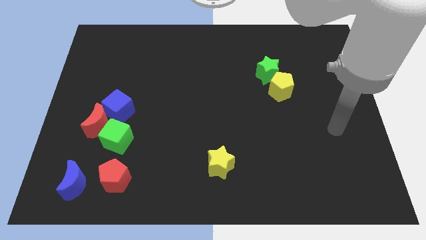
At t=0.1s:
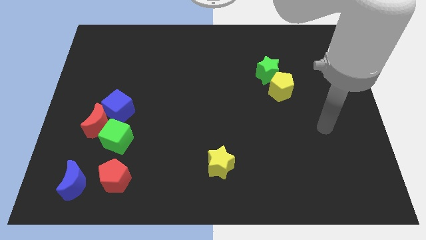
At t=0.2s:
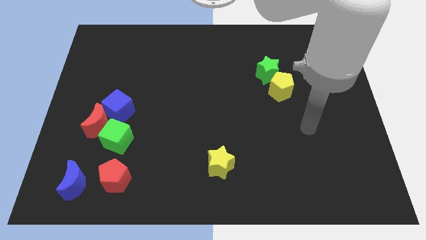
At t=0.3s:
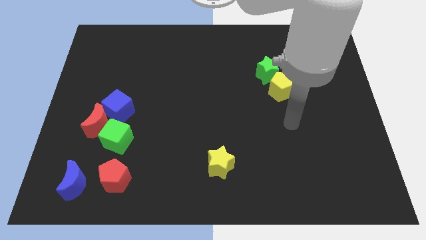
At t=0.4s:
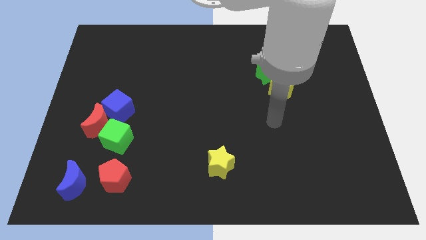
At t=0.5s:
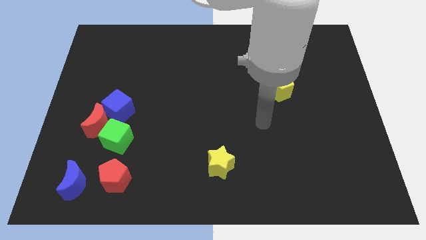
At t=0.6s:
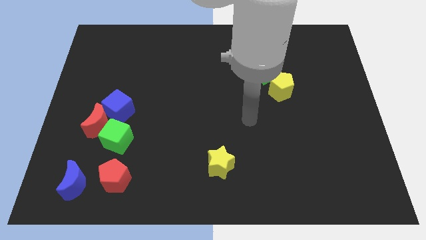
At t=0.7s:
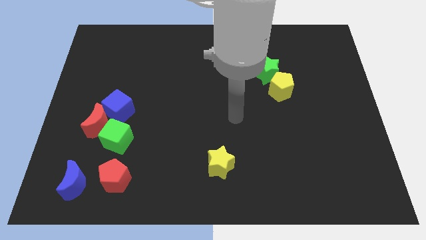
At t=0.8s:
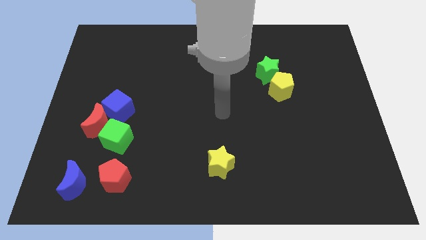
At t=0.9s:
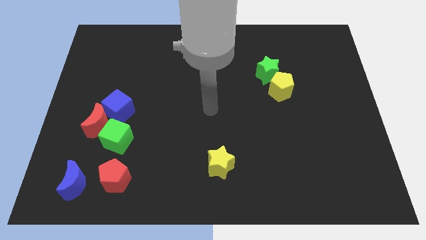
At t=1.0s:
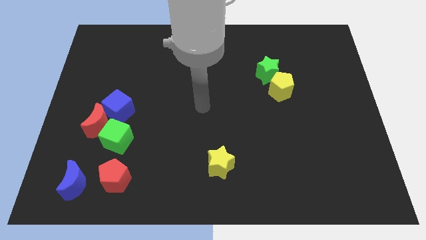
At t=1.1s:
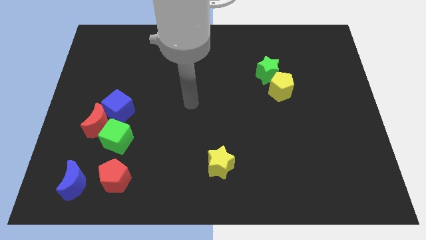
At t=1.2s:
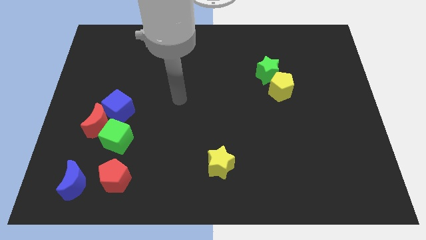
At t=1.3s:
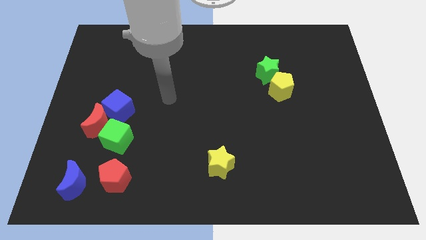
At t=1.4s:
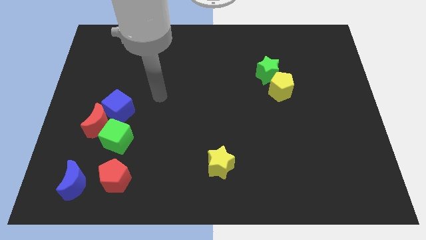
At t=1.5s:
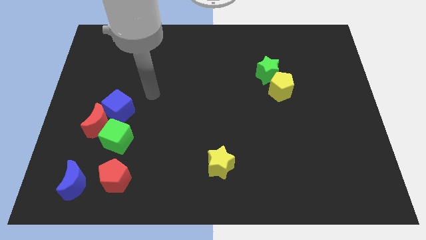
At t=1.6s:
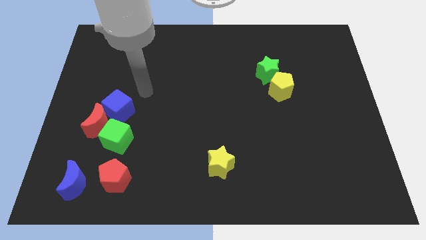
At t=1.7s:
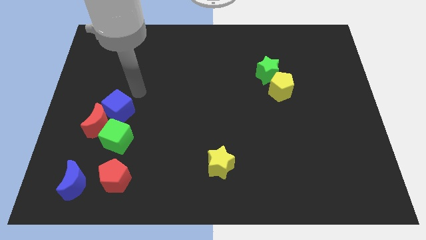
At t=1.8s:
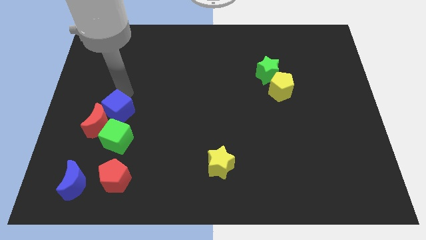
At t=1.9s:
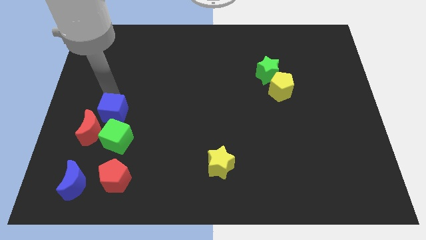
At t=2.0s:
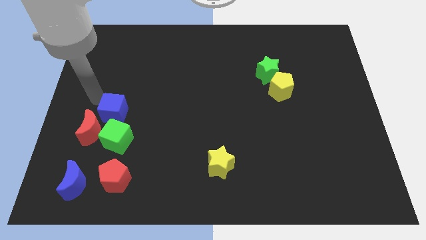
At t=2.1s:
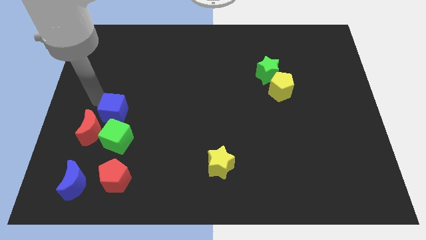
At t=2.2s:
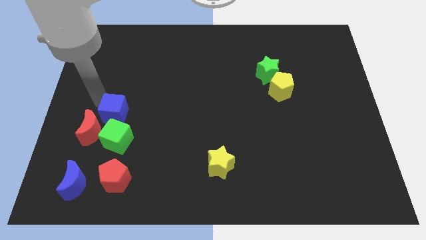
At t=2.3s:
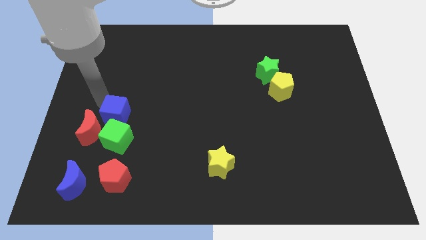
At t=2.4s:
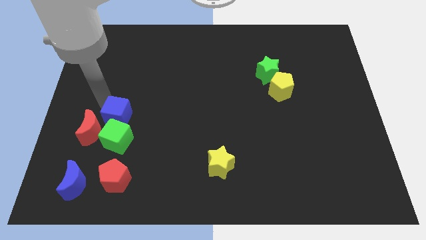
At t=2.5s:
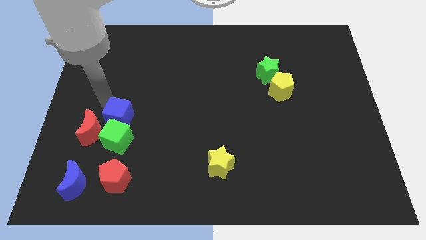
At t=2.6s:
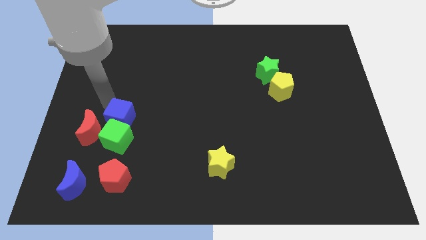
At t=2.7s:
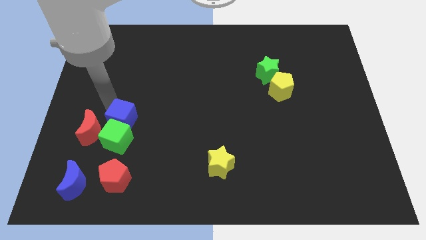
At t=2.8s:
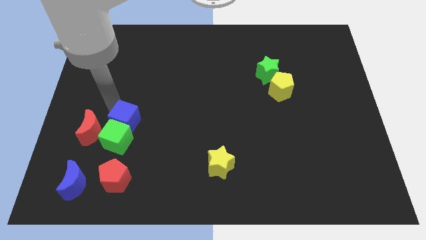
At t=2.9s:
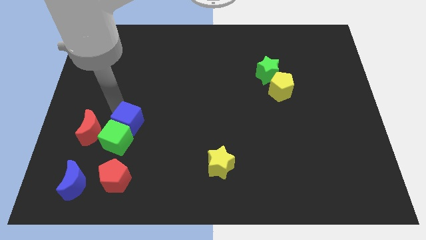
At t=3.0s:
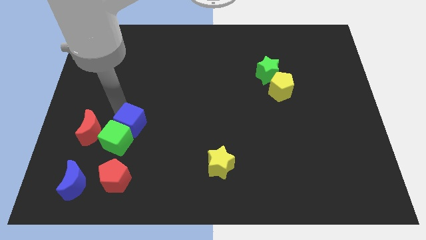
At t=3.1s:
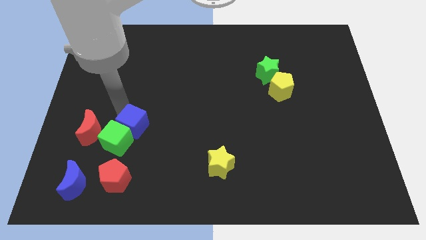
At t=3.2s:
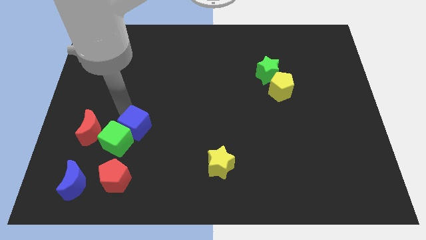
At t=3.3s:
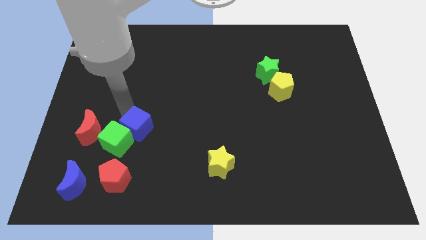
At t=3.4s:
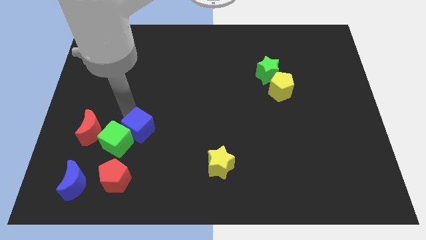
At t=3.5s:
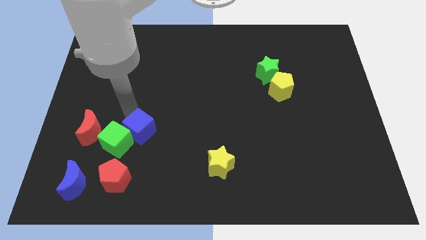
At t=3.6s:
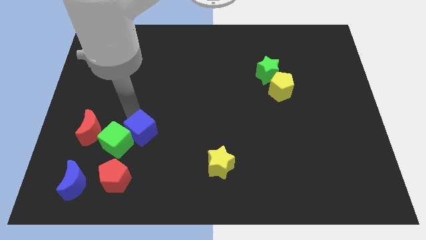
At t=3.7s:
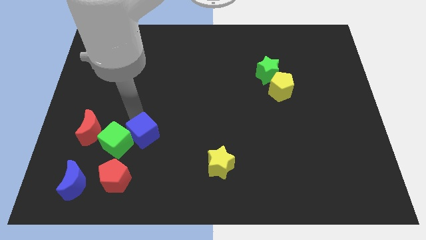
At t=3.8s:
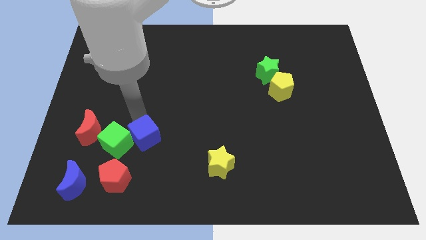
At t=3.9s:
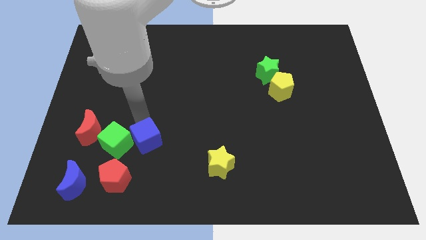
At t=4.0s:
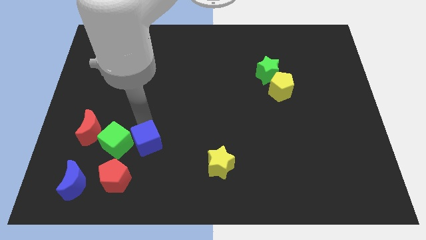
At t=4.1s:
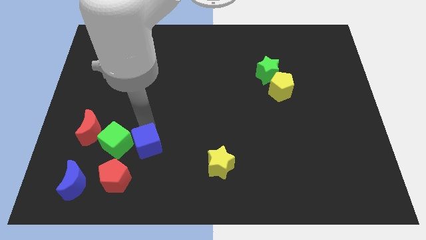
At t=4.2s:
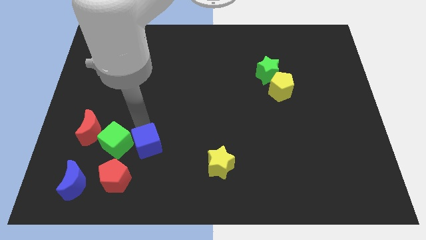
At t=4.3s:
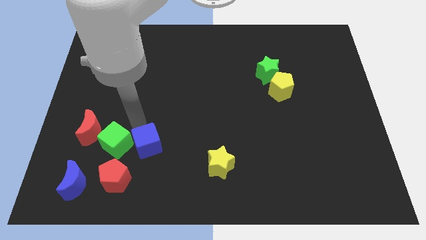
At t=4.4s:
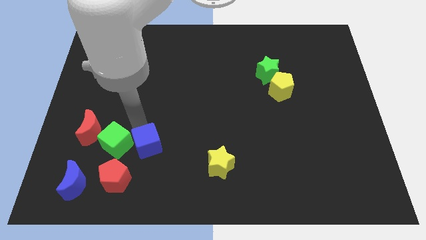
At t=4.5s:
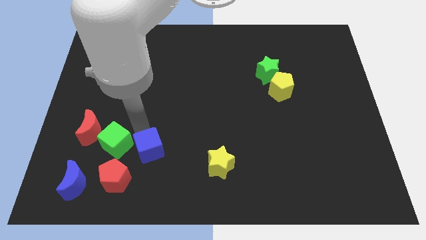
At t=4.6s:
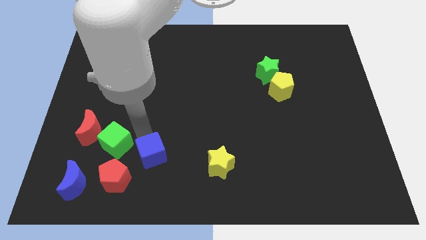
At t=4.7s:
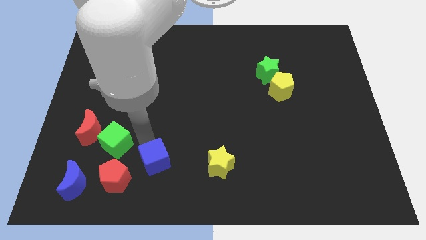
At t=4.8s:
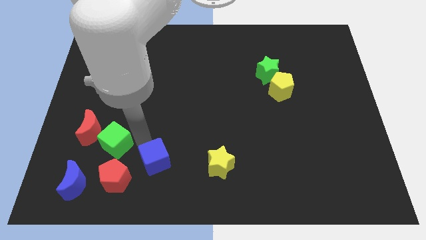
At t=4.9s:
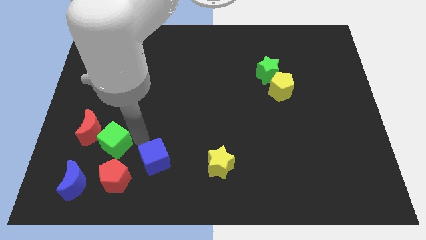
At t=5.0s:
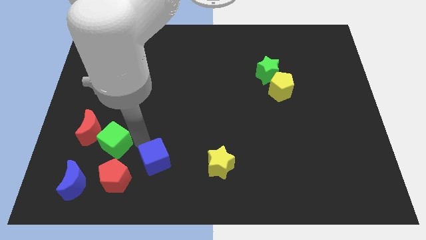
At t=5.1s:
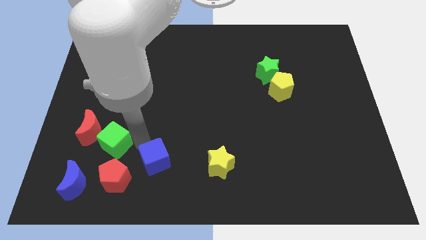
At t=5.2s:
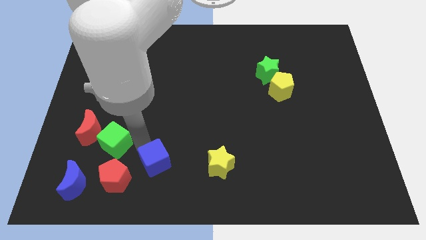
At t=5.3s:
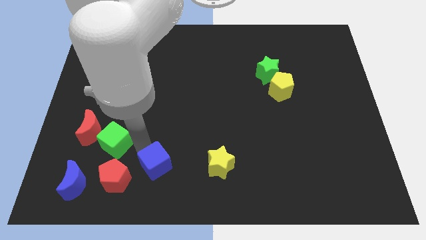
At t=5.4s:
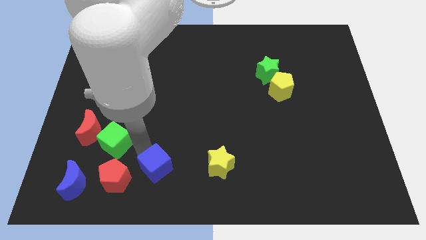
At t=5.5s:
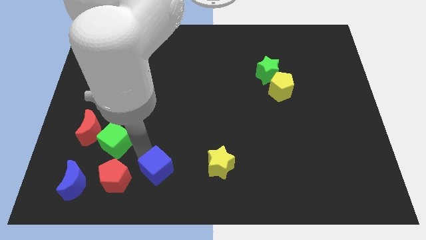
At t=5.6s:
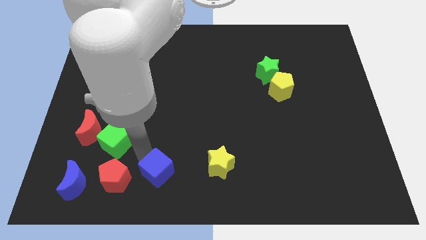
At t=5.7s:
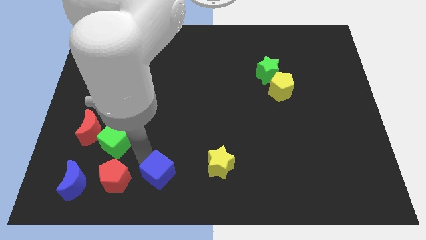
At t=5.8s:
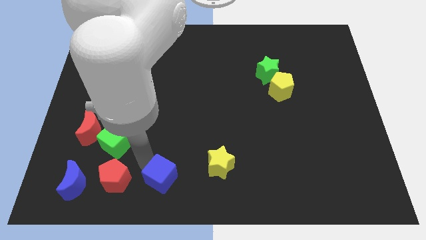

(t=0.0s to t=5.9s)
put the blue cube to the bottom side

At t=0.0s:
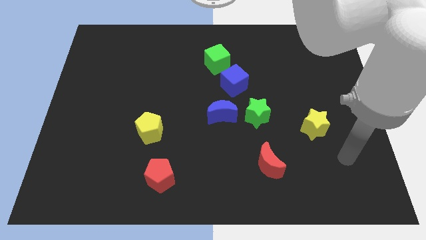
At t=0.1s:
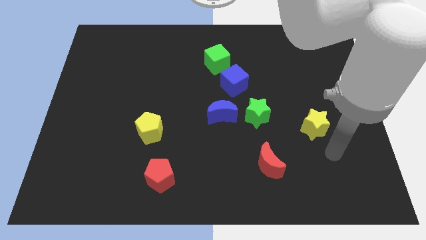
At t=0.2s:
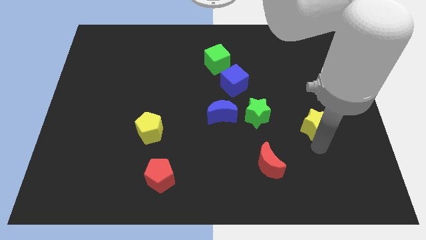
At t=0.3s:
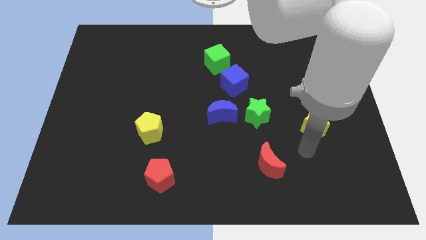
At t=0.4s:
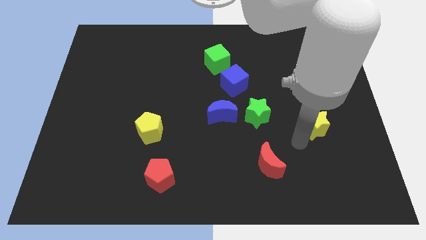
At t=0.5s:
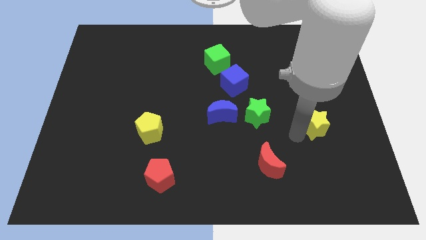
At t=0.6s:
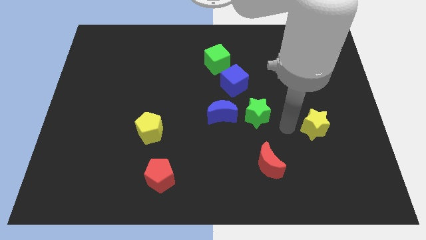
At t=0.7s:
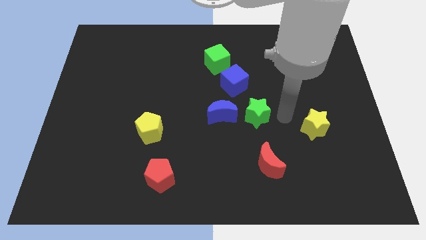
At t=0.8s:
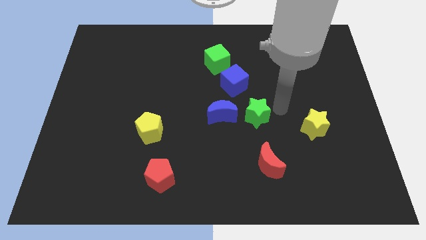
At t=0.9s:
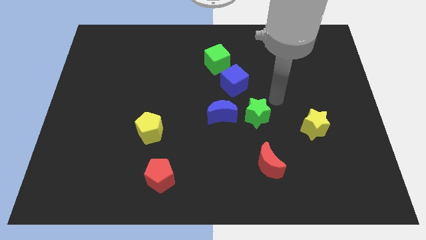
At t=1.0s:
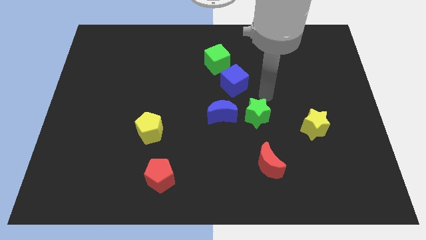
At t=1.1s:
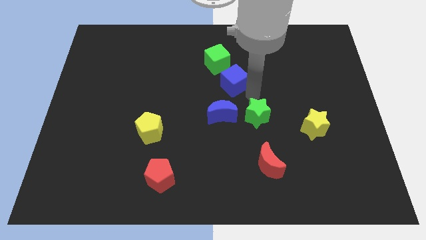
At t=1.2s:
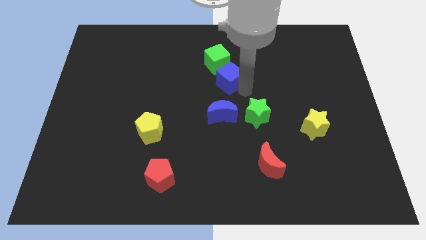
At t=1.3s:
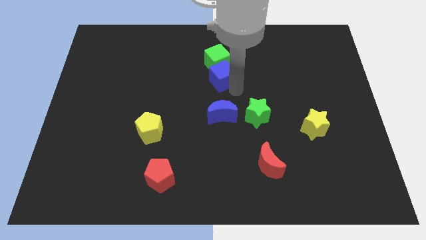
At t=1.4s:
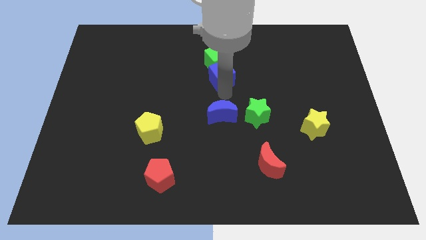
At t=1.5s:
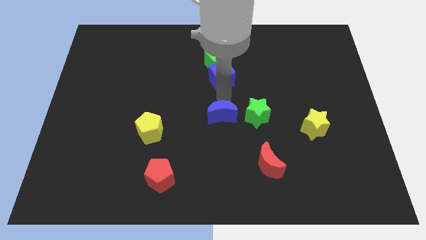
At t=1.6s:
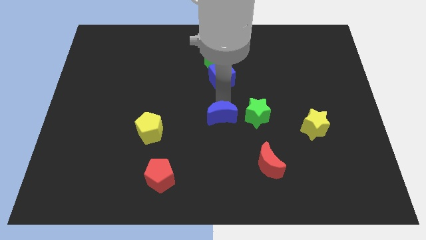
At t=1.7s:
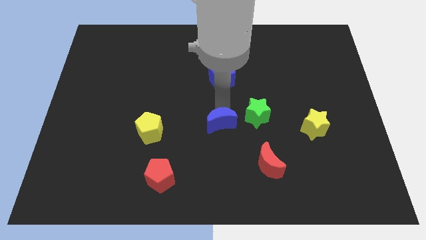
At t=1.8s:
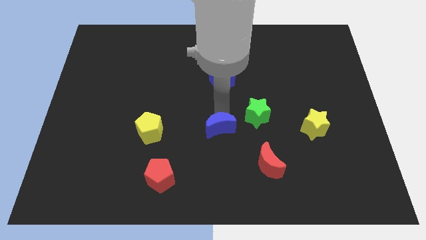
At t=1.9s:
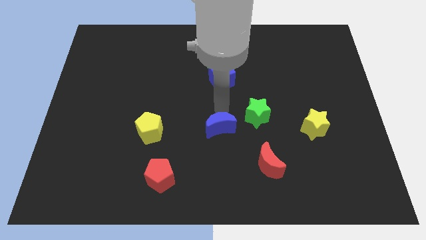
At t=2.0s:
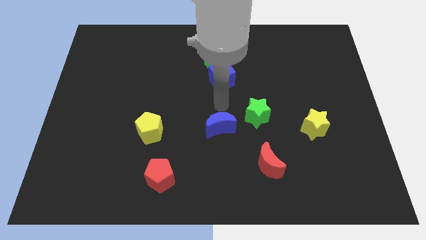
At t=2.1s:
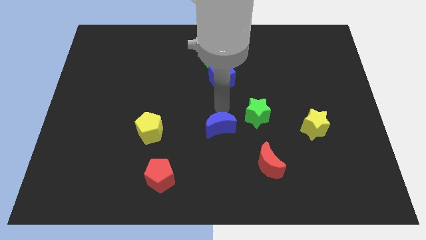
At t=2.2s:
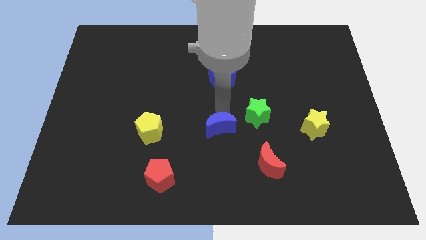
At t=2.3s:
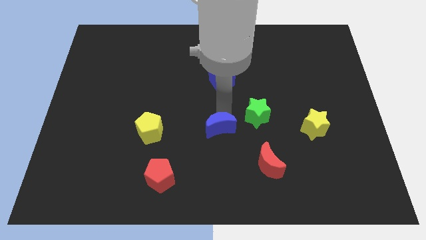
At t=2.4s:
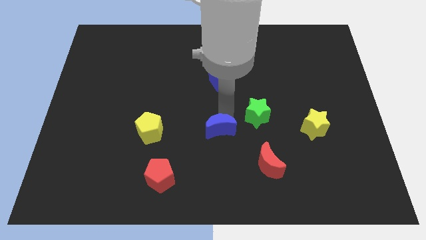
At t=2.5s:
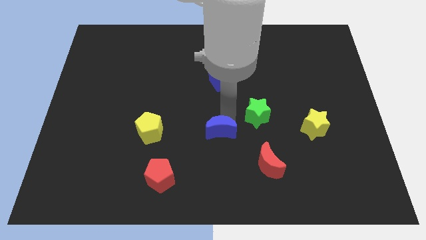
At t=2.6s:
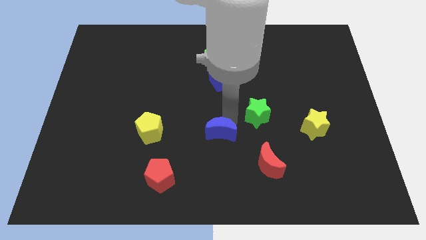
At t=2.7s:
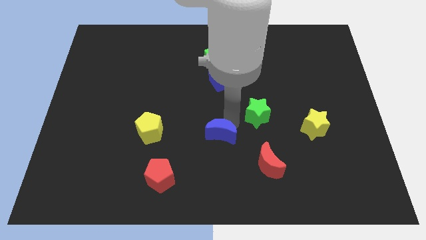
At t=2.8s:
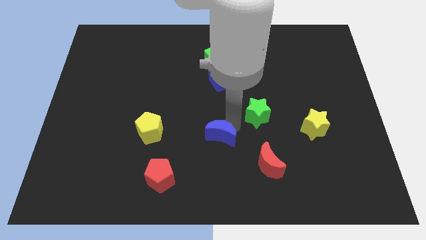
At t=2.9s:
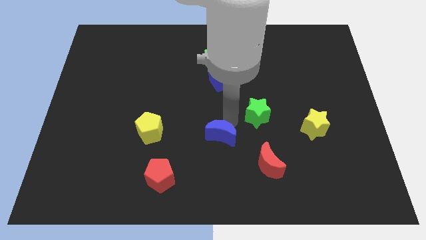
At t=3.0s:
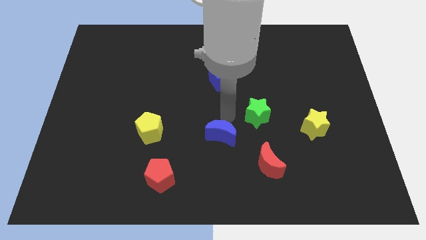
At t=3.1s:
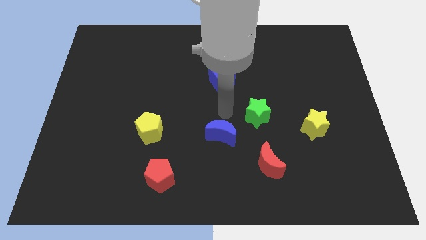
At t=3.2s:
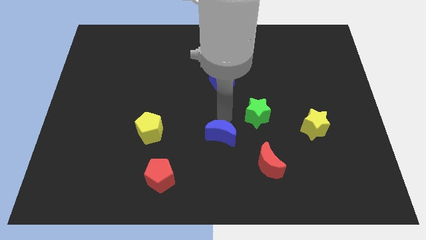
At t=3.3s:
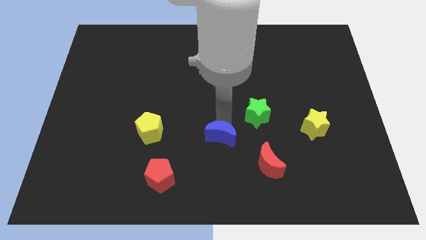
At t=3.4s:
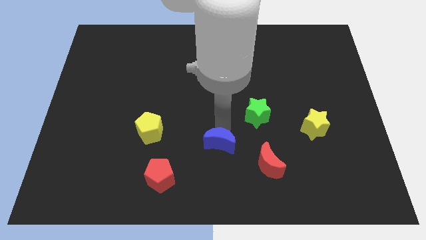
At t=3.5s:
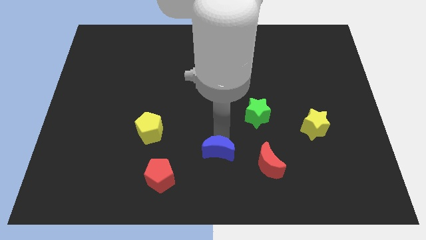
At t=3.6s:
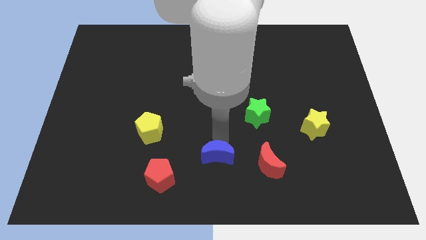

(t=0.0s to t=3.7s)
put the blue moon to the bottom
